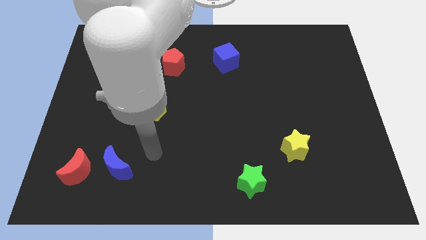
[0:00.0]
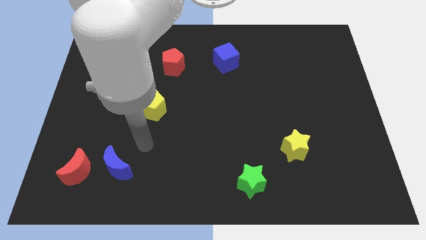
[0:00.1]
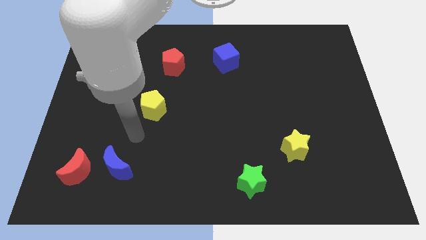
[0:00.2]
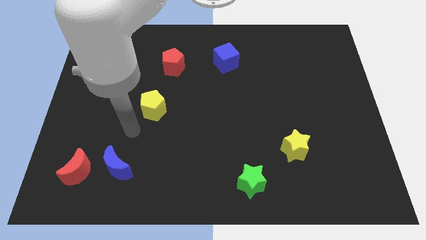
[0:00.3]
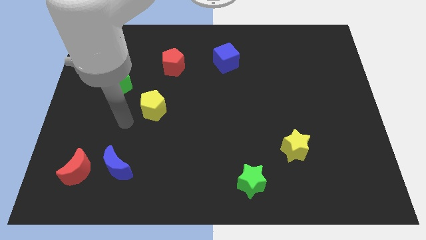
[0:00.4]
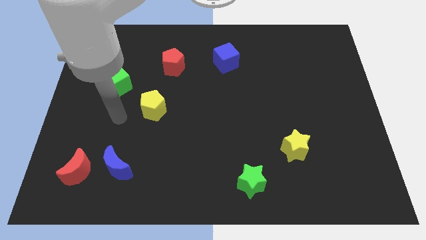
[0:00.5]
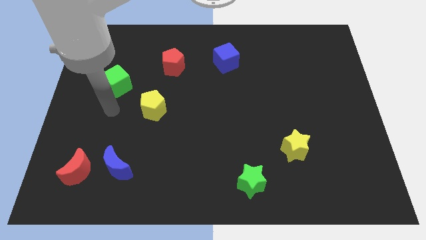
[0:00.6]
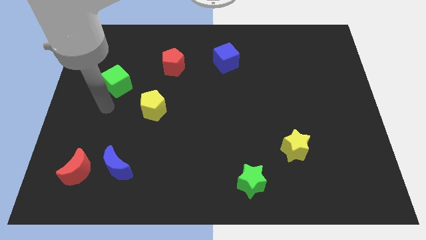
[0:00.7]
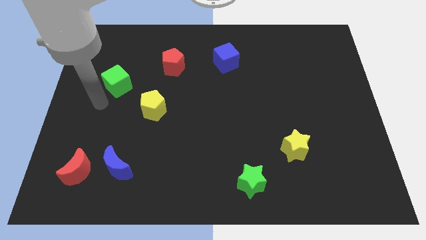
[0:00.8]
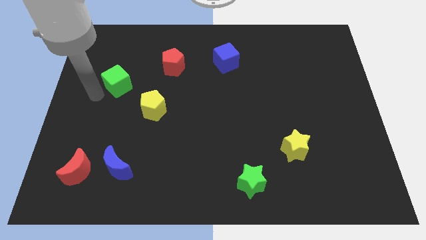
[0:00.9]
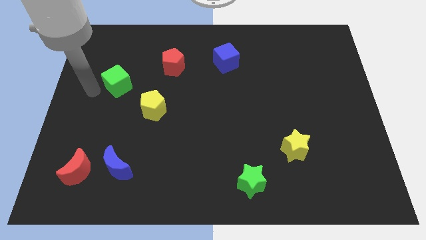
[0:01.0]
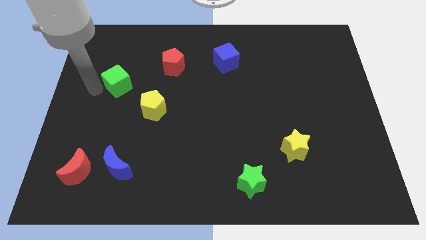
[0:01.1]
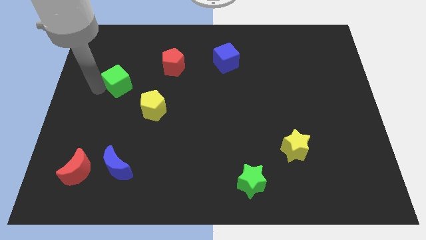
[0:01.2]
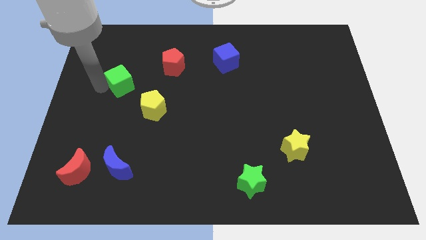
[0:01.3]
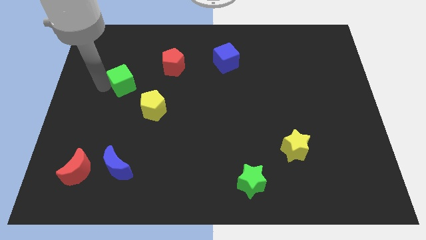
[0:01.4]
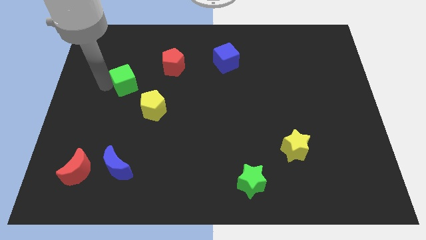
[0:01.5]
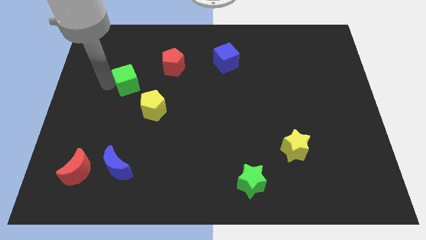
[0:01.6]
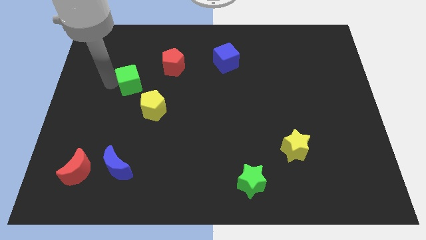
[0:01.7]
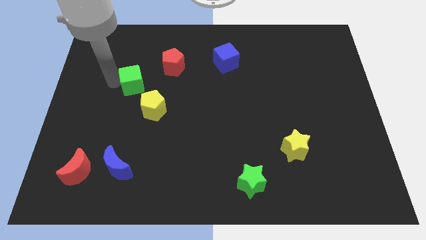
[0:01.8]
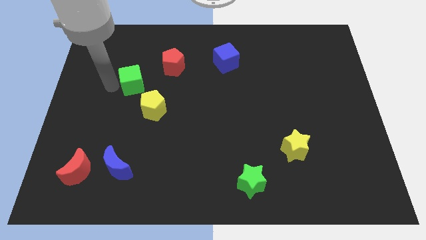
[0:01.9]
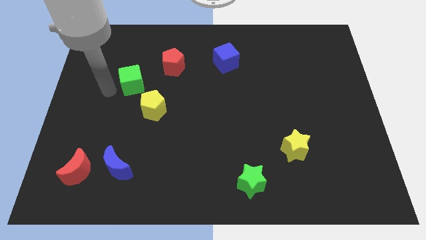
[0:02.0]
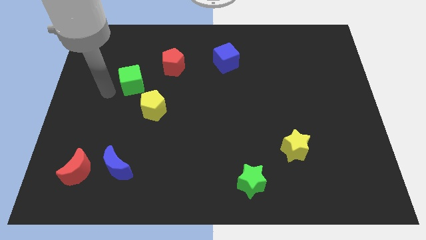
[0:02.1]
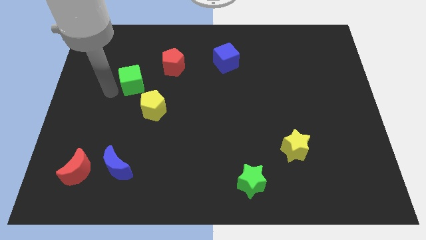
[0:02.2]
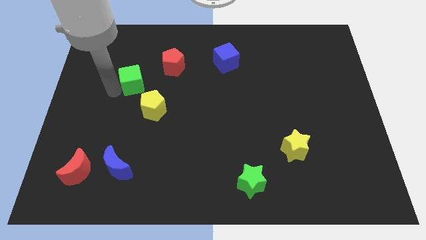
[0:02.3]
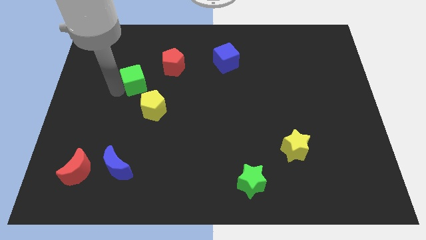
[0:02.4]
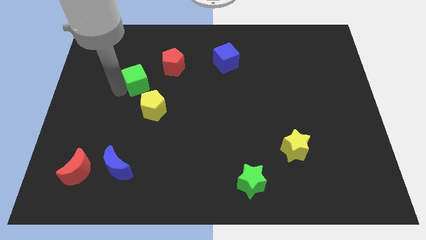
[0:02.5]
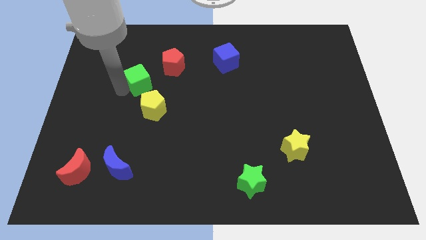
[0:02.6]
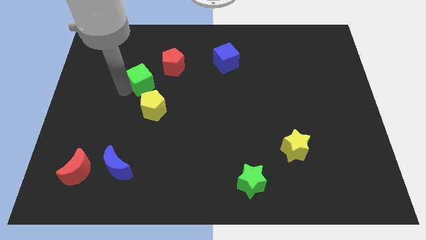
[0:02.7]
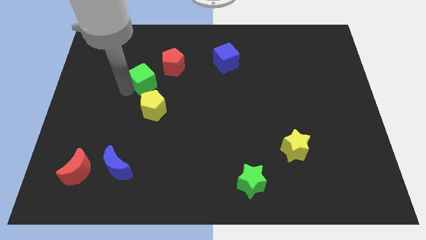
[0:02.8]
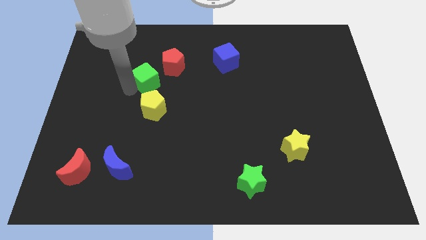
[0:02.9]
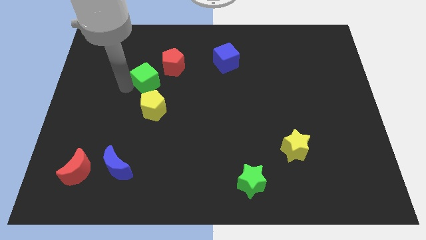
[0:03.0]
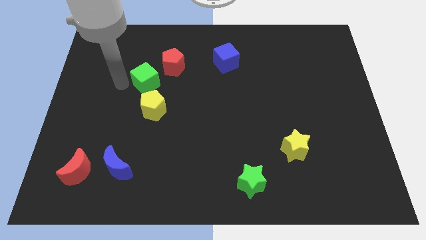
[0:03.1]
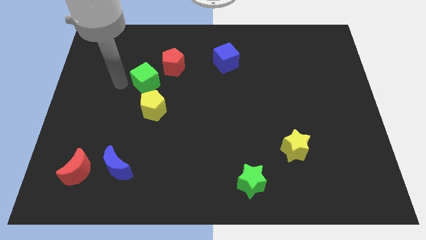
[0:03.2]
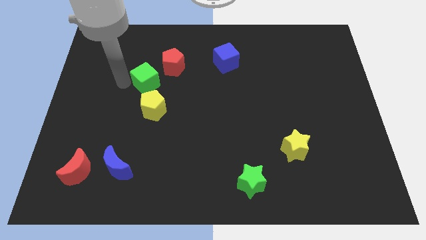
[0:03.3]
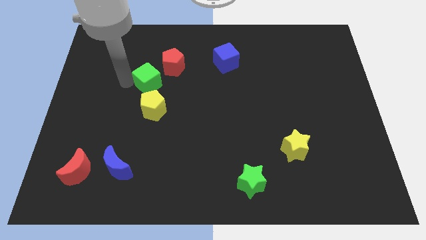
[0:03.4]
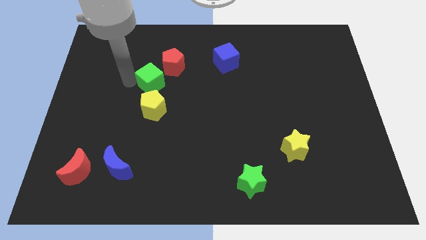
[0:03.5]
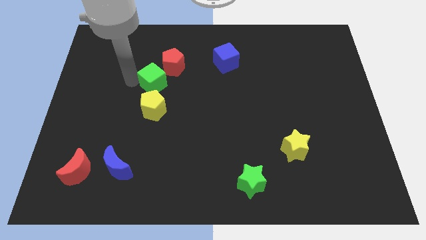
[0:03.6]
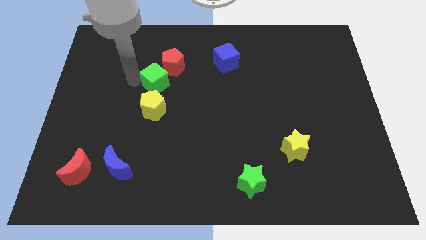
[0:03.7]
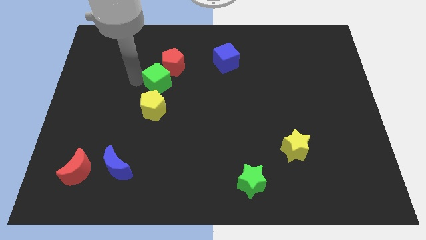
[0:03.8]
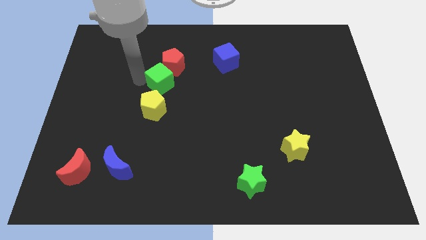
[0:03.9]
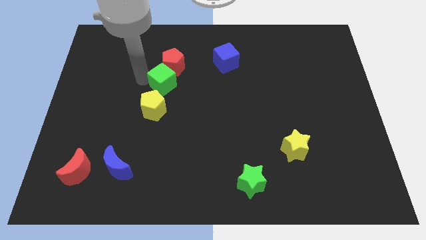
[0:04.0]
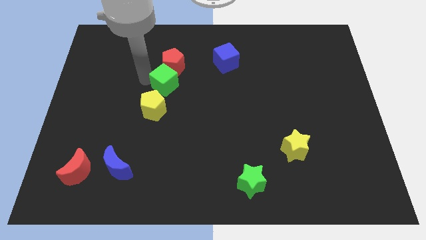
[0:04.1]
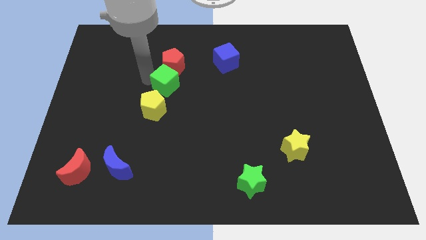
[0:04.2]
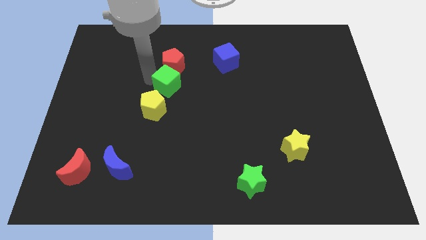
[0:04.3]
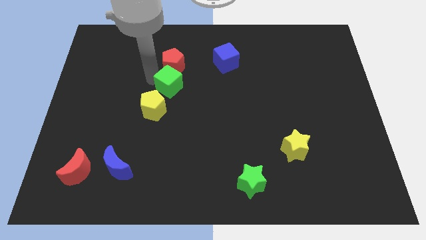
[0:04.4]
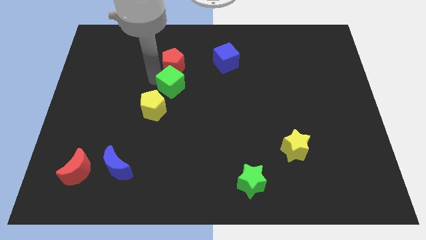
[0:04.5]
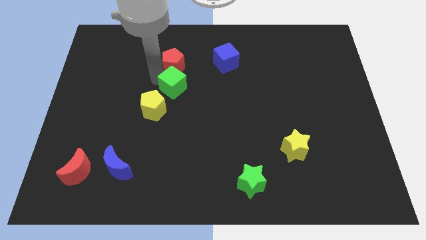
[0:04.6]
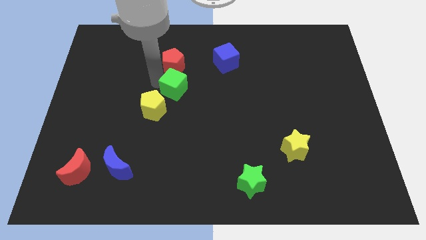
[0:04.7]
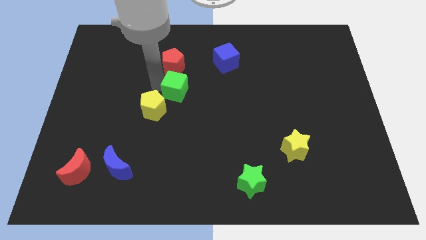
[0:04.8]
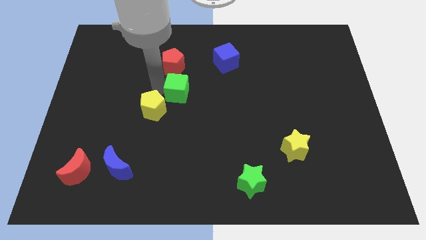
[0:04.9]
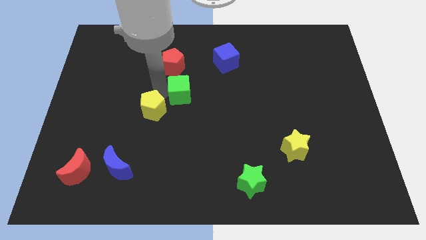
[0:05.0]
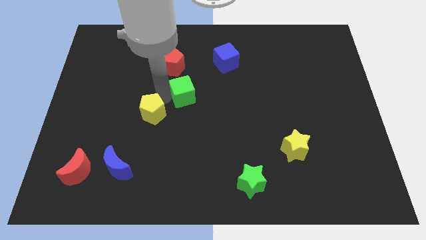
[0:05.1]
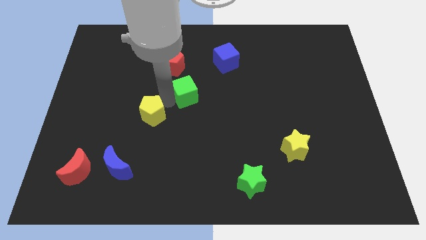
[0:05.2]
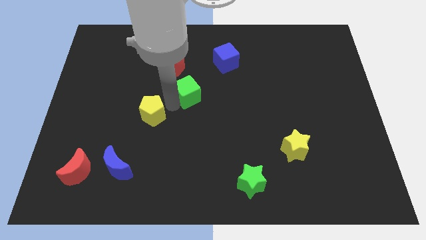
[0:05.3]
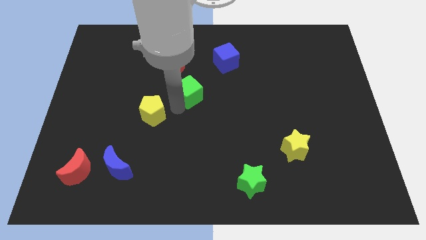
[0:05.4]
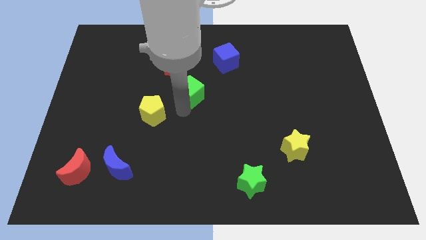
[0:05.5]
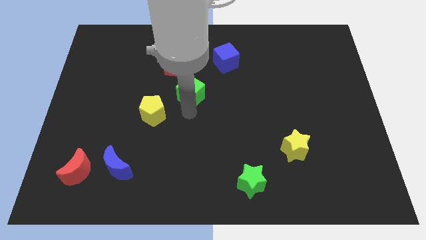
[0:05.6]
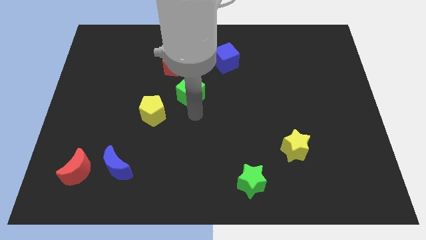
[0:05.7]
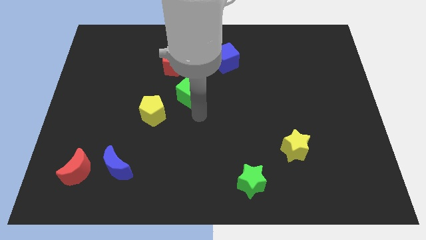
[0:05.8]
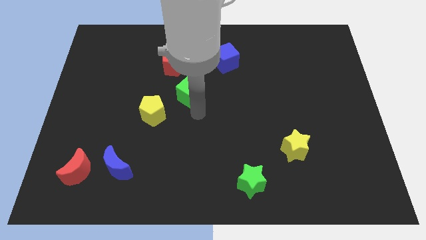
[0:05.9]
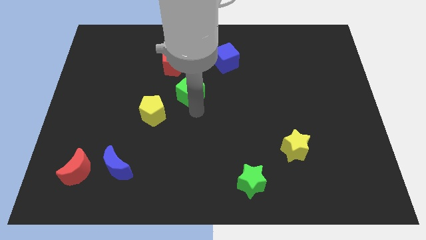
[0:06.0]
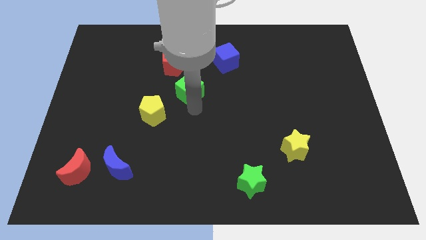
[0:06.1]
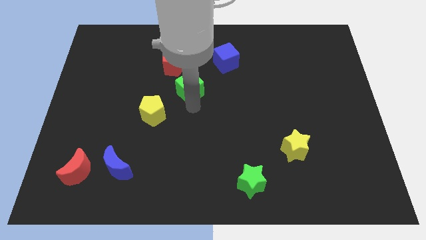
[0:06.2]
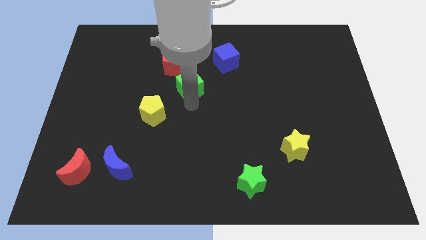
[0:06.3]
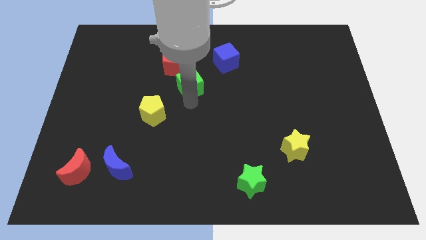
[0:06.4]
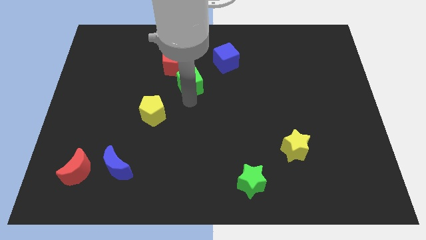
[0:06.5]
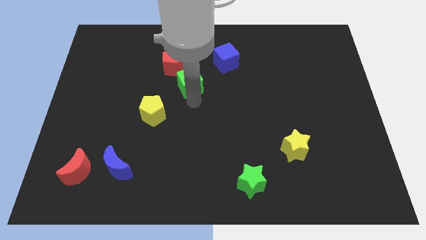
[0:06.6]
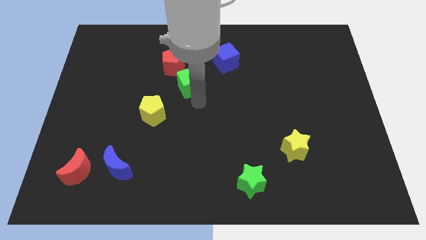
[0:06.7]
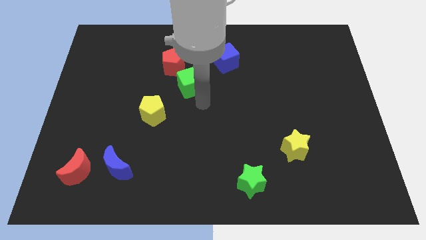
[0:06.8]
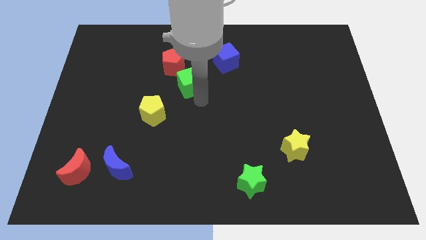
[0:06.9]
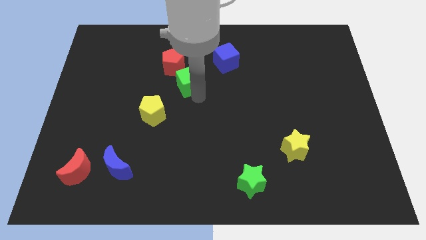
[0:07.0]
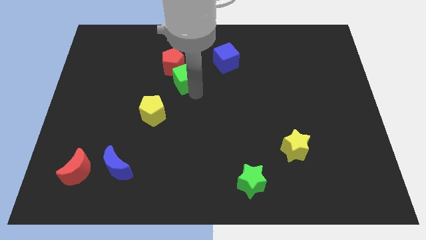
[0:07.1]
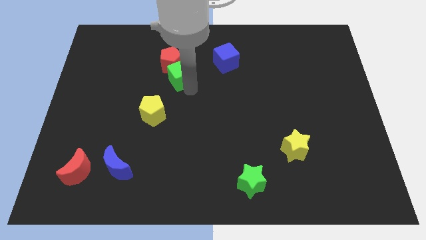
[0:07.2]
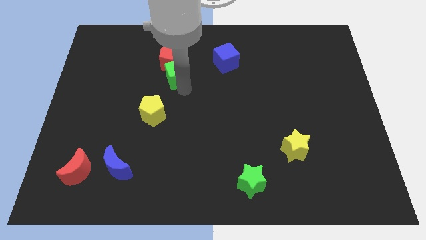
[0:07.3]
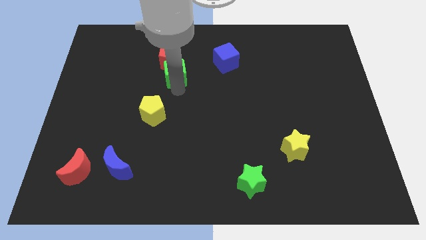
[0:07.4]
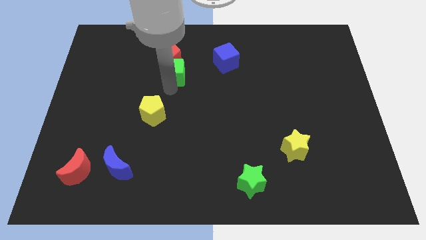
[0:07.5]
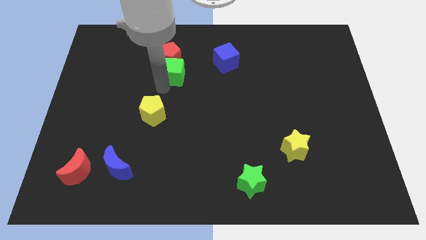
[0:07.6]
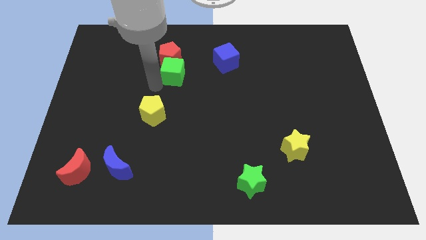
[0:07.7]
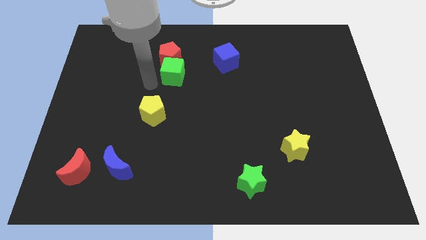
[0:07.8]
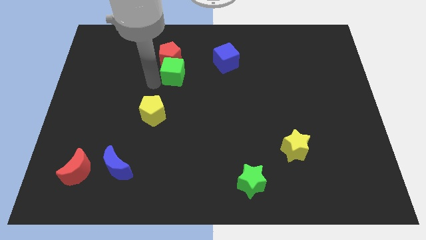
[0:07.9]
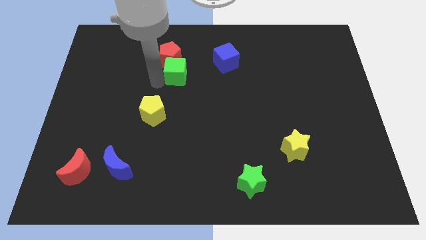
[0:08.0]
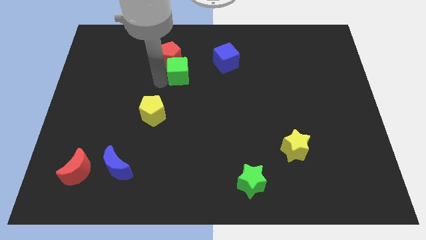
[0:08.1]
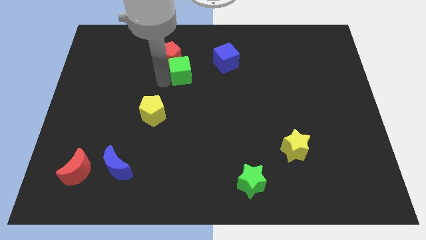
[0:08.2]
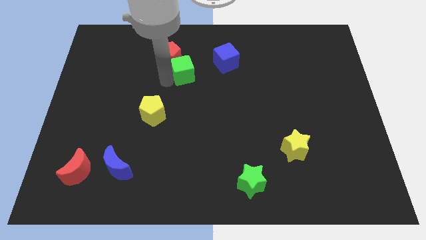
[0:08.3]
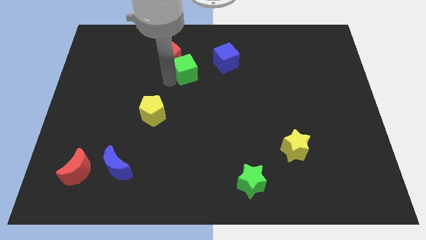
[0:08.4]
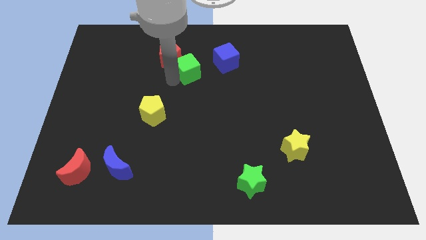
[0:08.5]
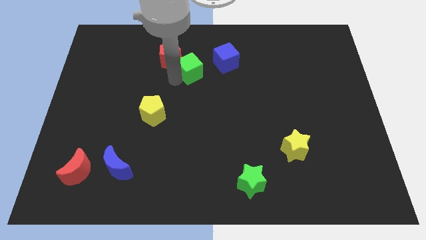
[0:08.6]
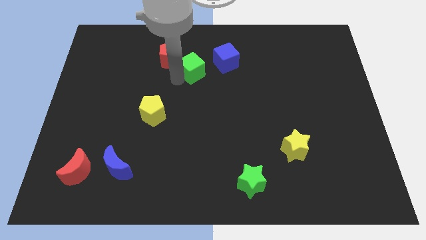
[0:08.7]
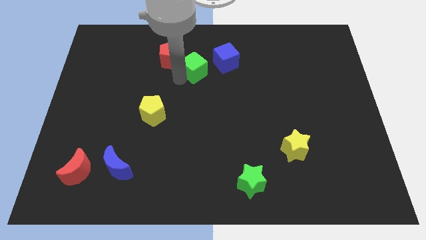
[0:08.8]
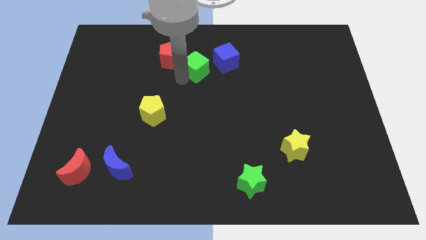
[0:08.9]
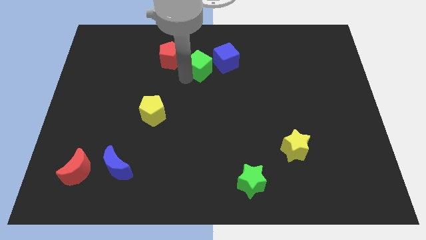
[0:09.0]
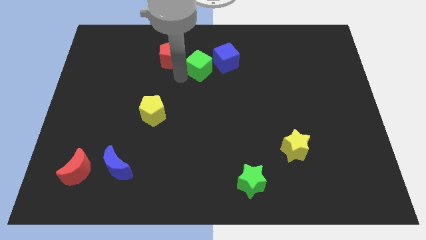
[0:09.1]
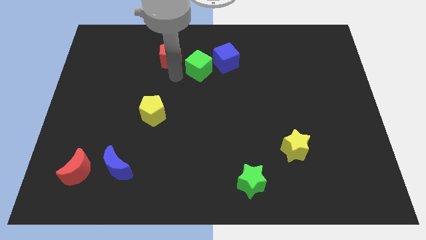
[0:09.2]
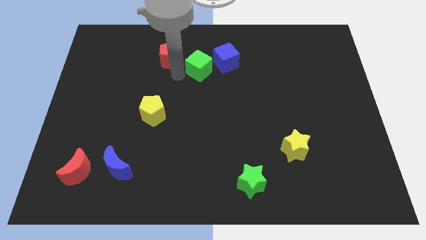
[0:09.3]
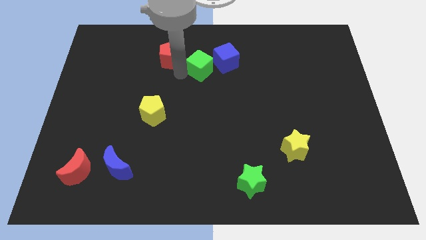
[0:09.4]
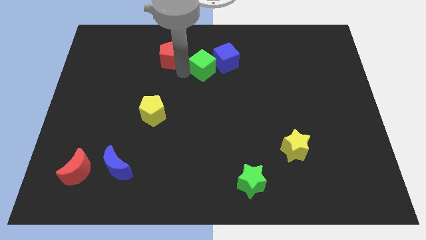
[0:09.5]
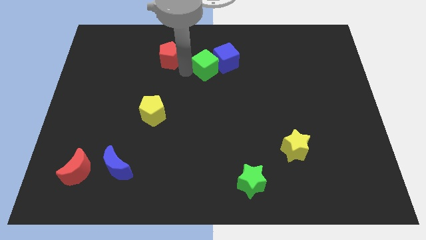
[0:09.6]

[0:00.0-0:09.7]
push the green cube to the blue cube
